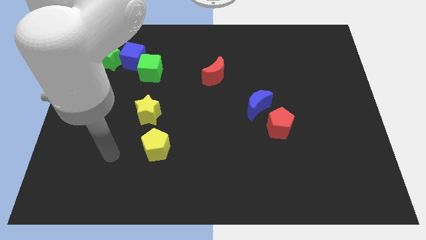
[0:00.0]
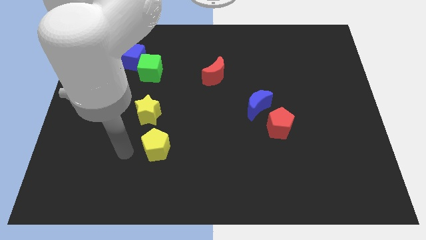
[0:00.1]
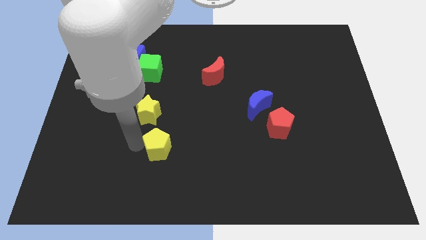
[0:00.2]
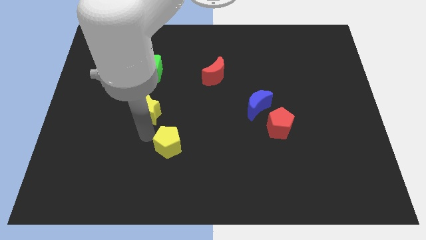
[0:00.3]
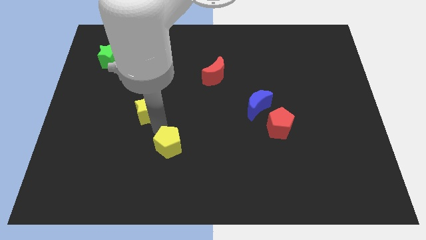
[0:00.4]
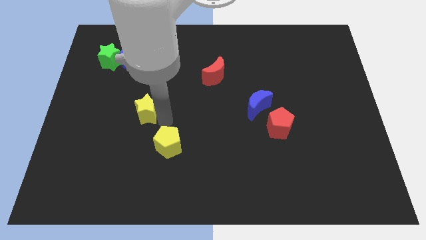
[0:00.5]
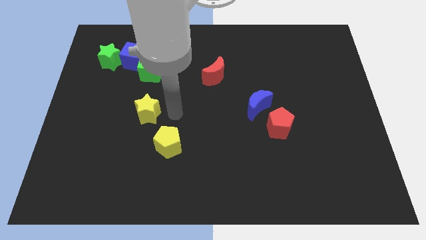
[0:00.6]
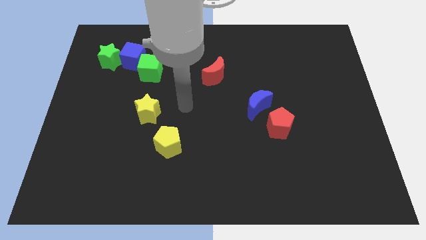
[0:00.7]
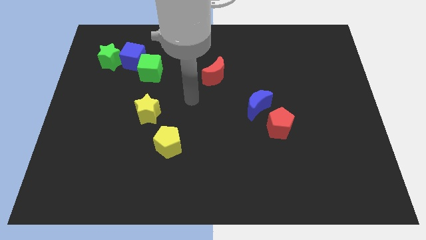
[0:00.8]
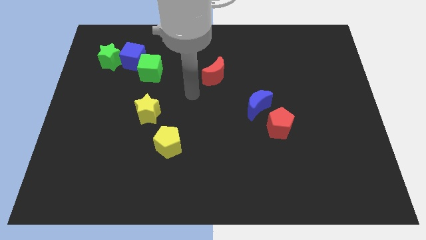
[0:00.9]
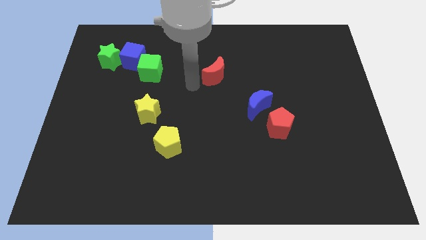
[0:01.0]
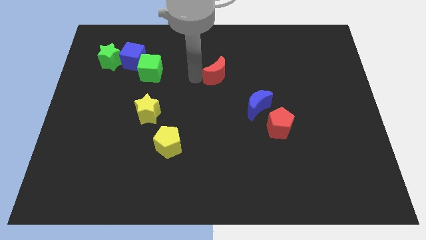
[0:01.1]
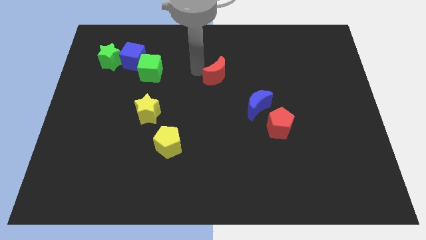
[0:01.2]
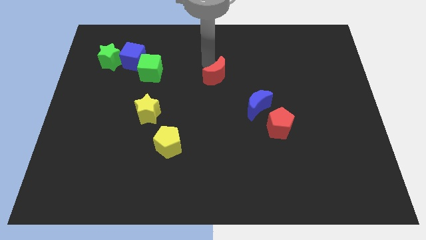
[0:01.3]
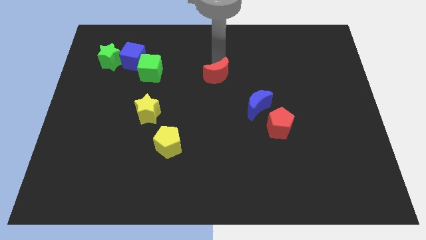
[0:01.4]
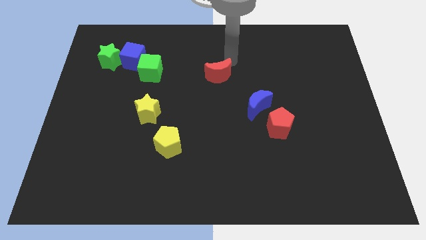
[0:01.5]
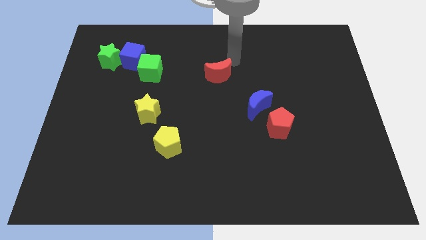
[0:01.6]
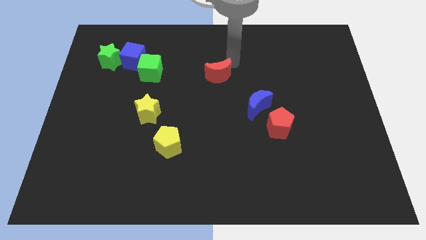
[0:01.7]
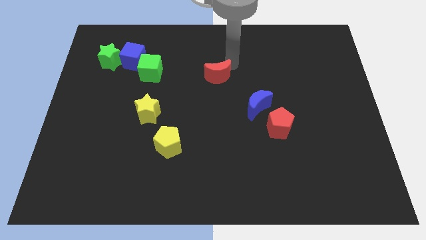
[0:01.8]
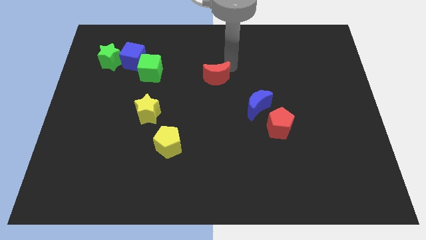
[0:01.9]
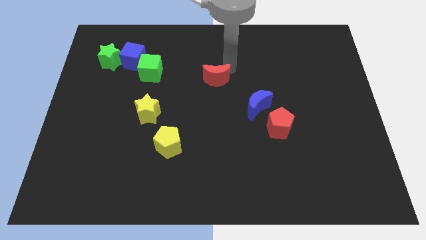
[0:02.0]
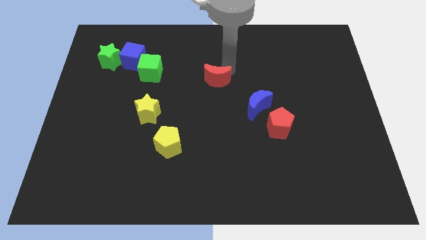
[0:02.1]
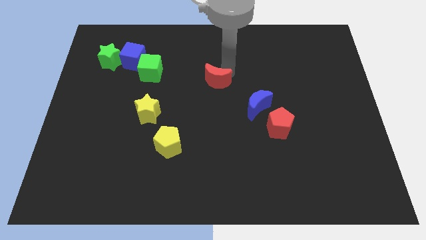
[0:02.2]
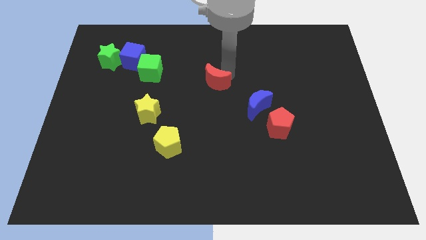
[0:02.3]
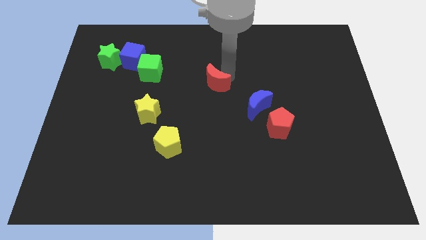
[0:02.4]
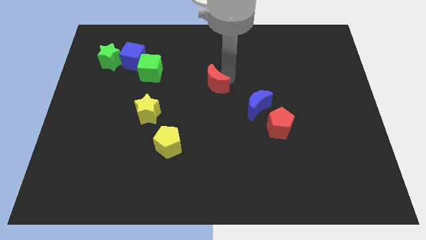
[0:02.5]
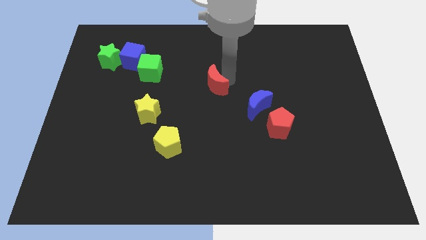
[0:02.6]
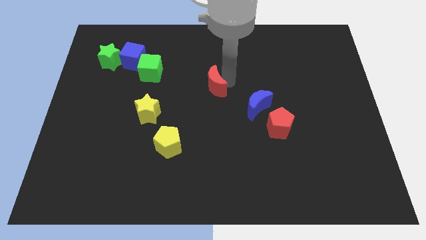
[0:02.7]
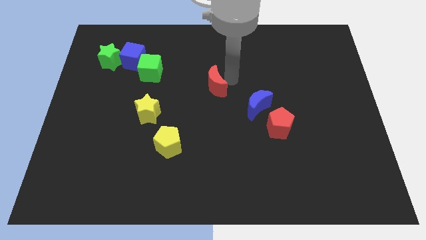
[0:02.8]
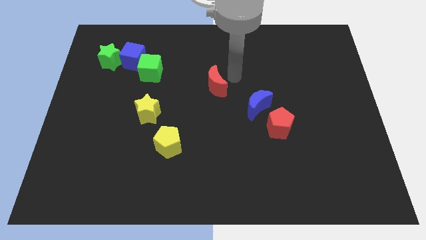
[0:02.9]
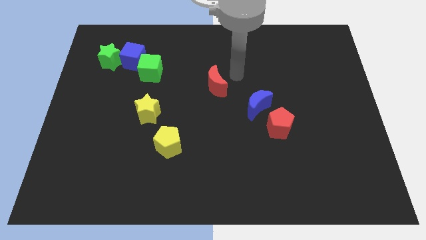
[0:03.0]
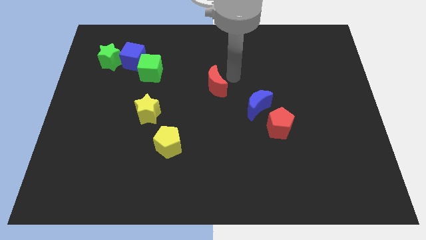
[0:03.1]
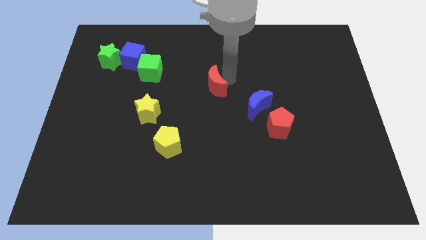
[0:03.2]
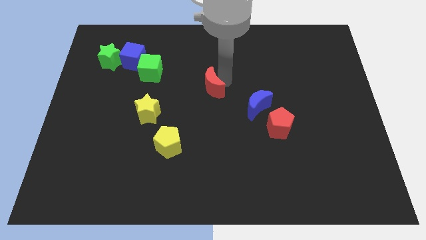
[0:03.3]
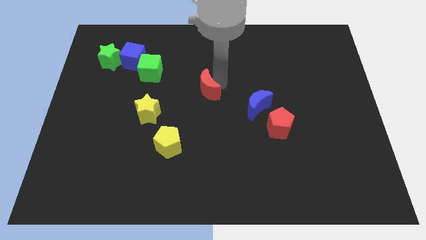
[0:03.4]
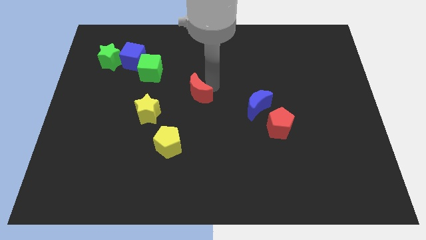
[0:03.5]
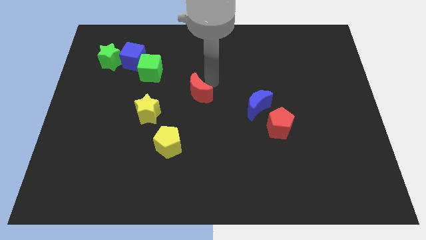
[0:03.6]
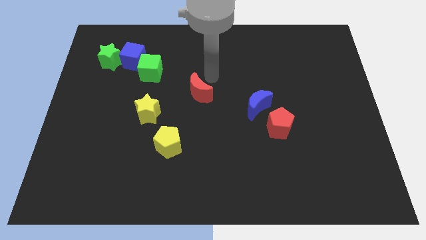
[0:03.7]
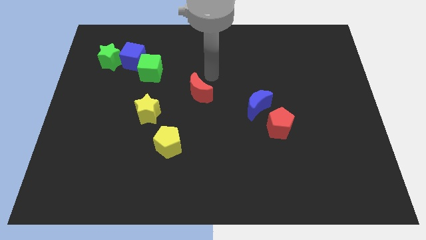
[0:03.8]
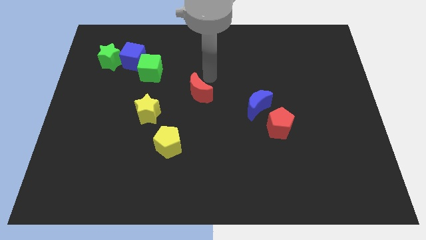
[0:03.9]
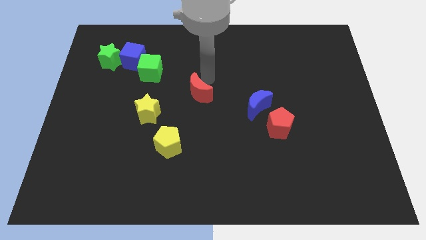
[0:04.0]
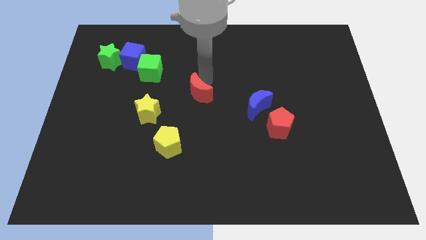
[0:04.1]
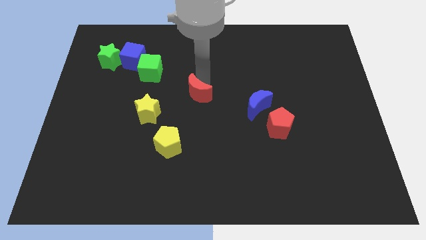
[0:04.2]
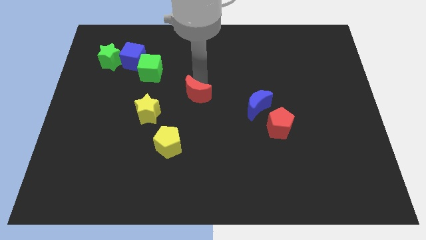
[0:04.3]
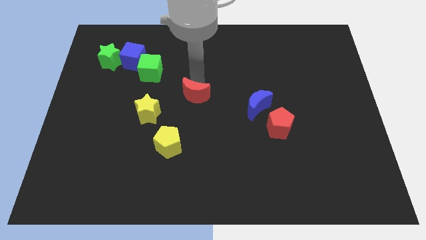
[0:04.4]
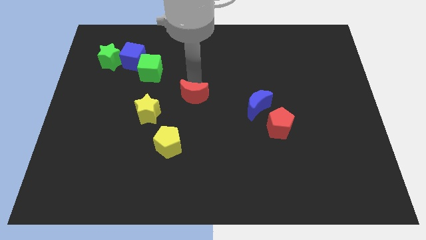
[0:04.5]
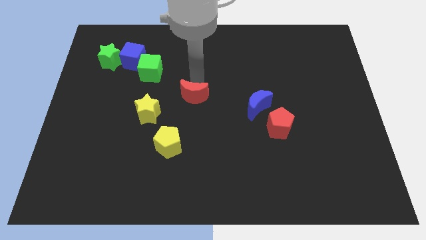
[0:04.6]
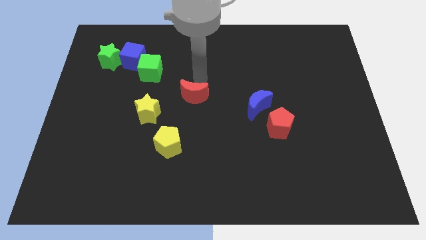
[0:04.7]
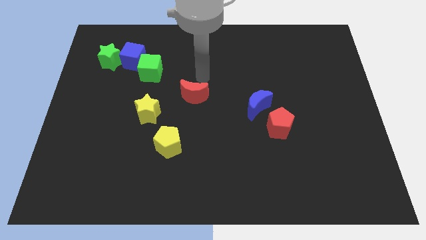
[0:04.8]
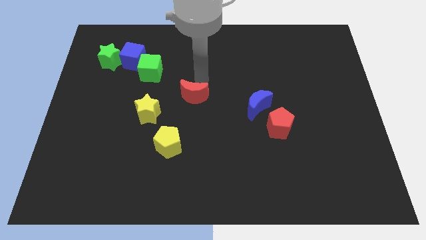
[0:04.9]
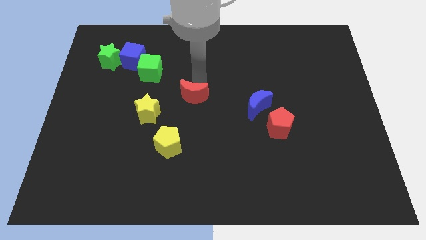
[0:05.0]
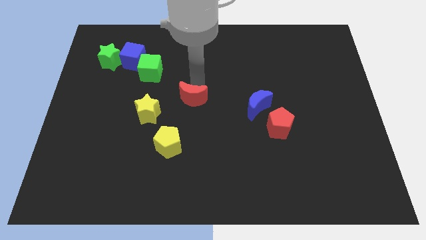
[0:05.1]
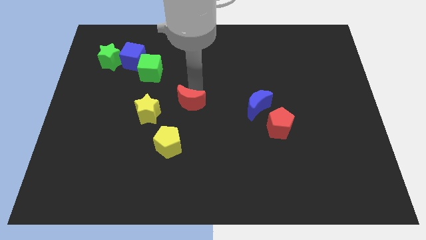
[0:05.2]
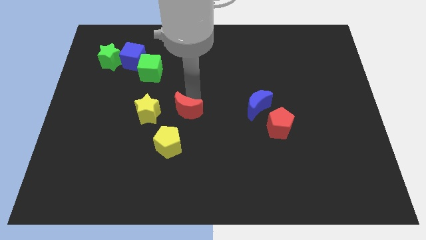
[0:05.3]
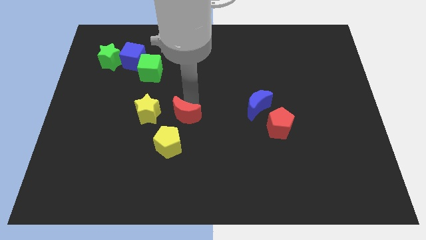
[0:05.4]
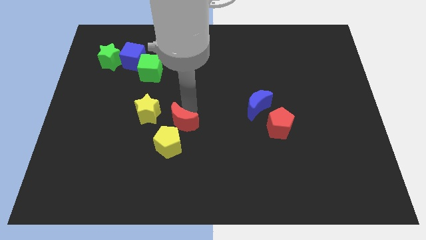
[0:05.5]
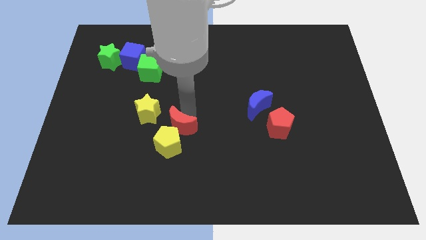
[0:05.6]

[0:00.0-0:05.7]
push the red moon towards the yellow pentagon

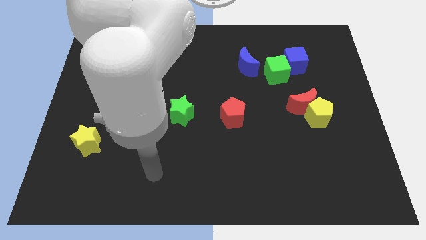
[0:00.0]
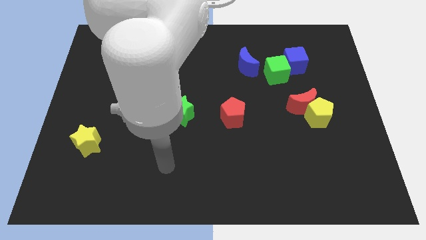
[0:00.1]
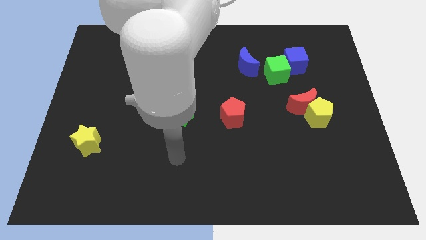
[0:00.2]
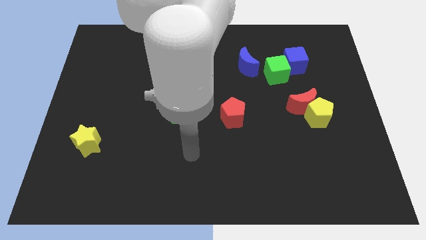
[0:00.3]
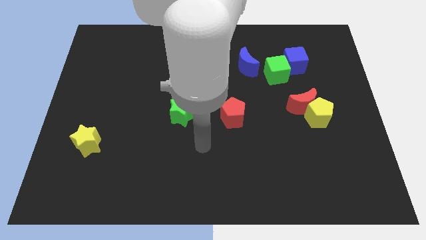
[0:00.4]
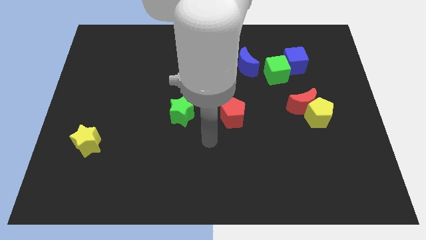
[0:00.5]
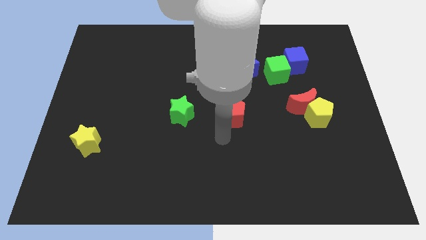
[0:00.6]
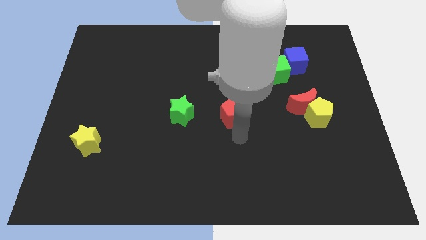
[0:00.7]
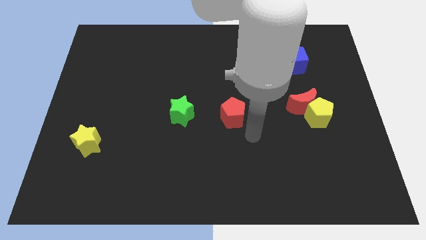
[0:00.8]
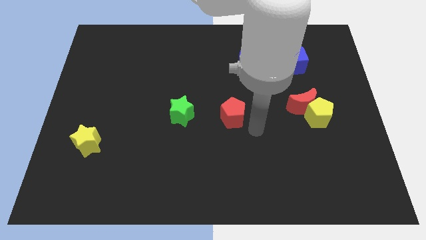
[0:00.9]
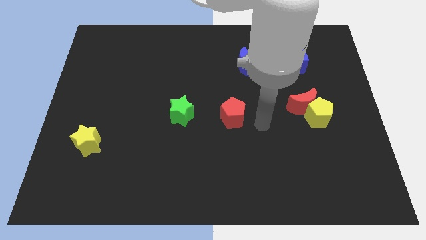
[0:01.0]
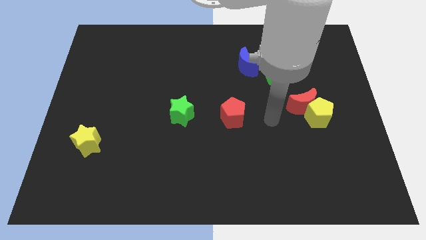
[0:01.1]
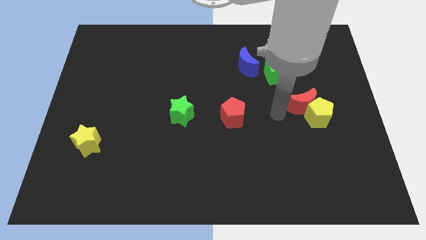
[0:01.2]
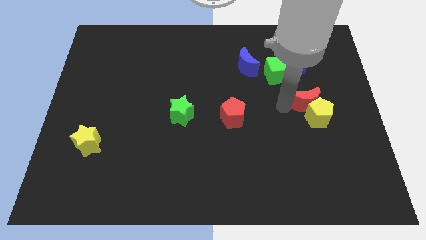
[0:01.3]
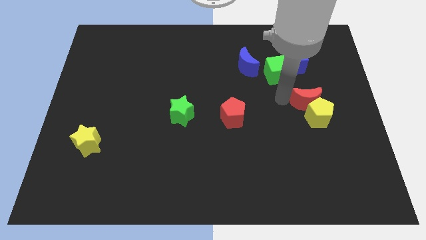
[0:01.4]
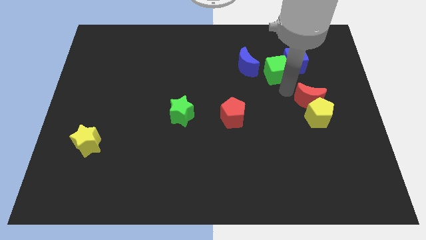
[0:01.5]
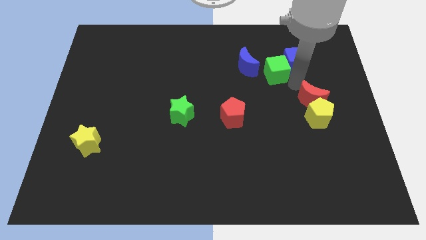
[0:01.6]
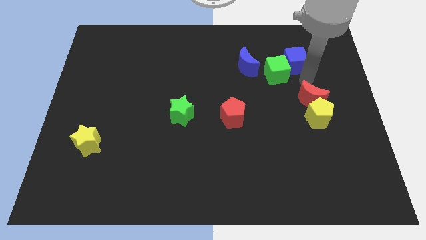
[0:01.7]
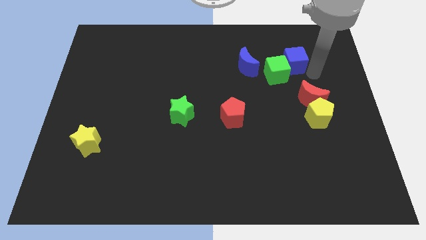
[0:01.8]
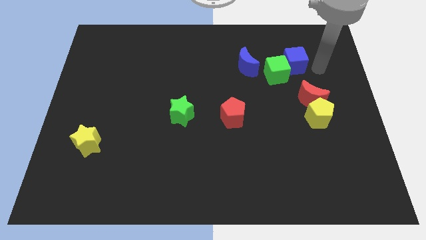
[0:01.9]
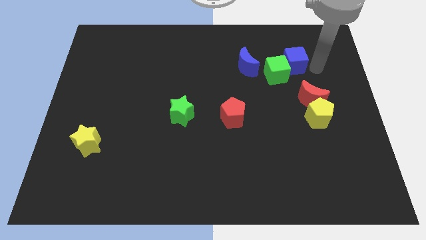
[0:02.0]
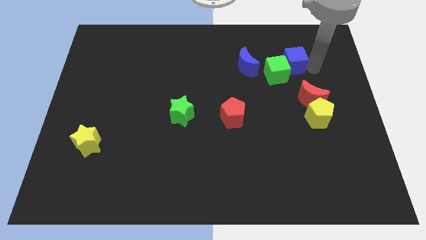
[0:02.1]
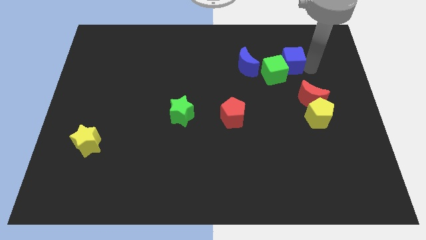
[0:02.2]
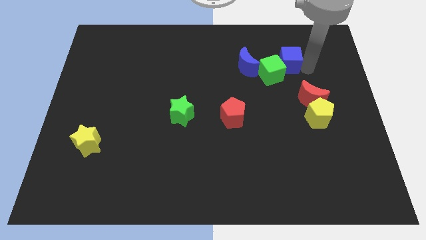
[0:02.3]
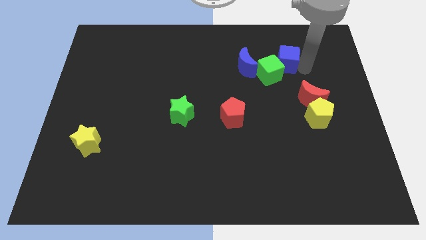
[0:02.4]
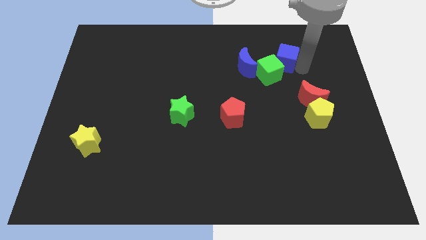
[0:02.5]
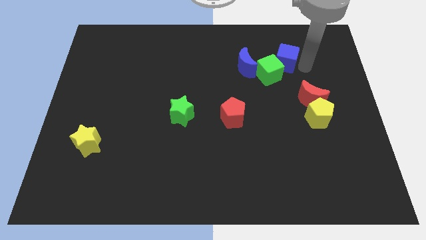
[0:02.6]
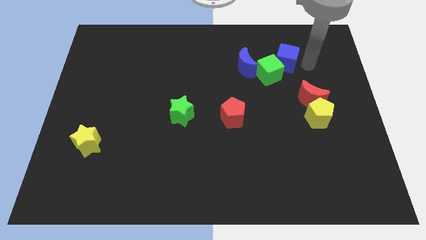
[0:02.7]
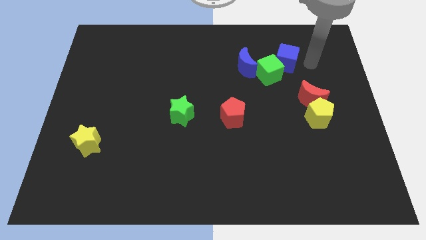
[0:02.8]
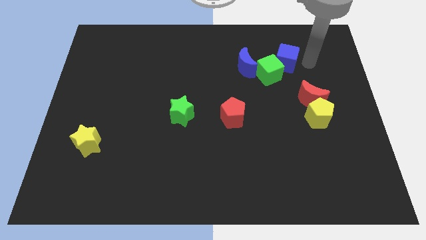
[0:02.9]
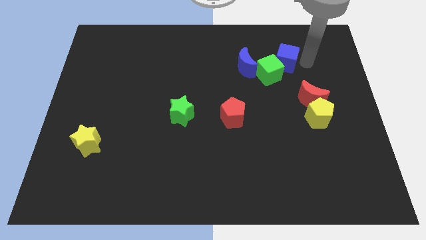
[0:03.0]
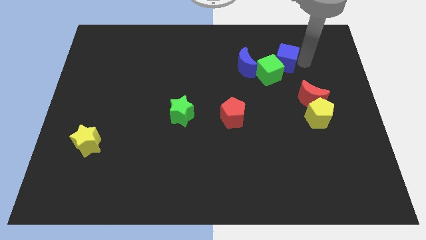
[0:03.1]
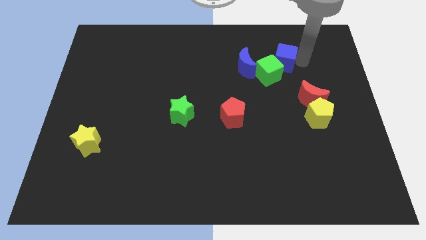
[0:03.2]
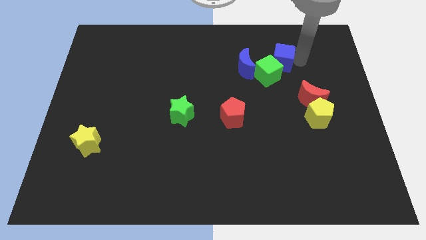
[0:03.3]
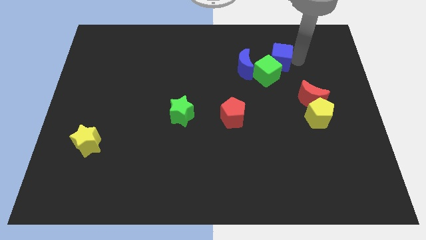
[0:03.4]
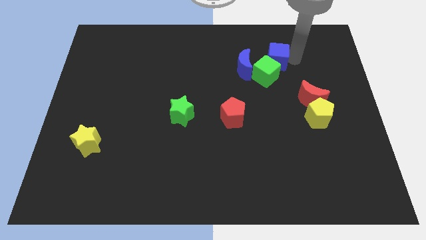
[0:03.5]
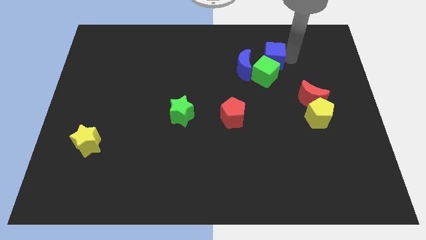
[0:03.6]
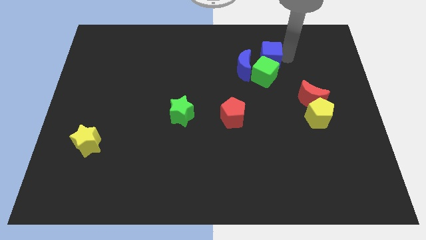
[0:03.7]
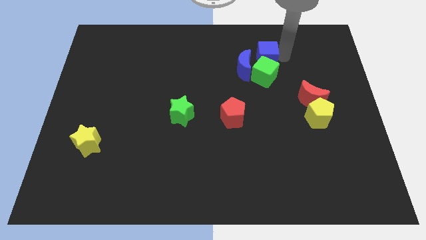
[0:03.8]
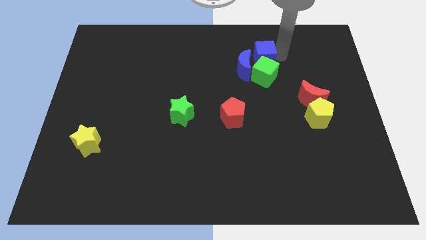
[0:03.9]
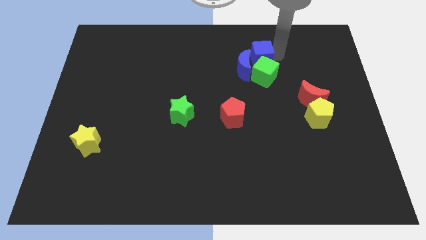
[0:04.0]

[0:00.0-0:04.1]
put the blue cube close to the blue moon
